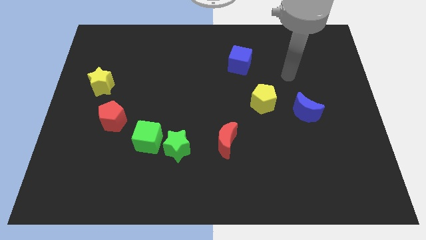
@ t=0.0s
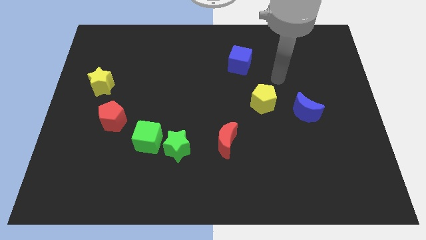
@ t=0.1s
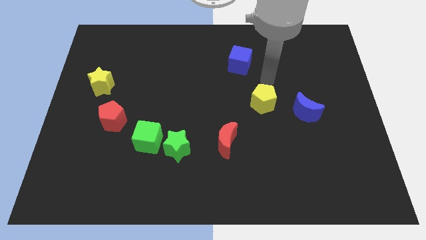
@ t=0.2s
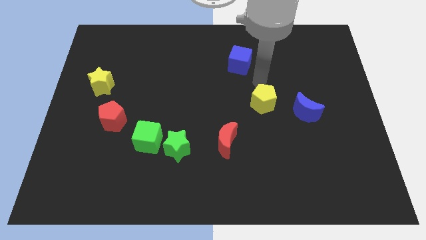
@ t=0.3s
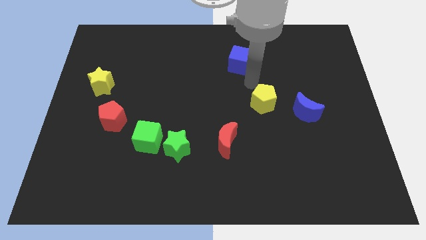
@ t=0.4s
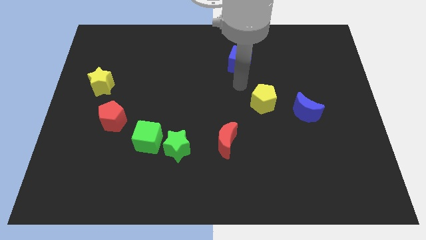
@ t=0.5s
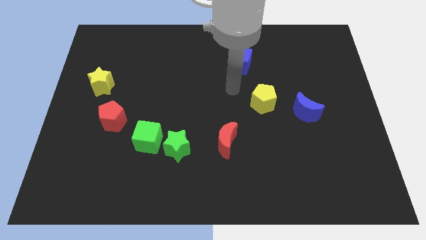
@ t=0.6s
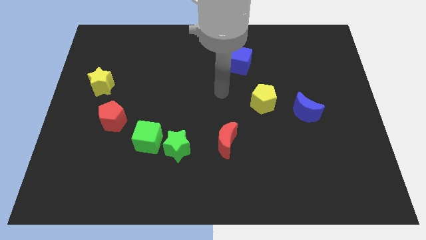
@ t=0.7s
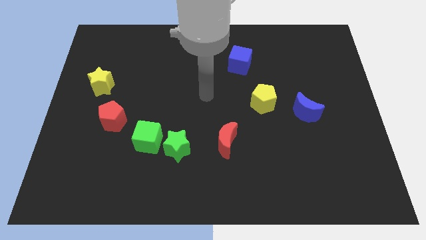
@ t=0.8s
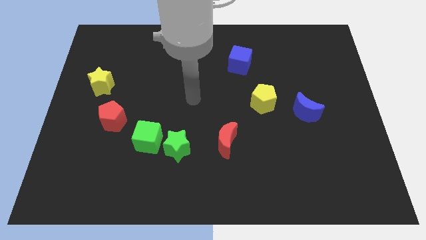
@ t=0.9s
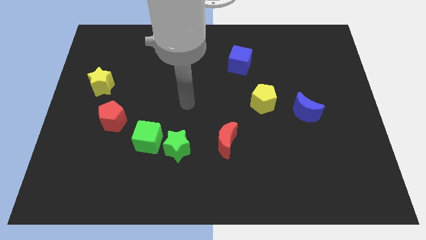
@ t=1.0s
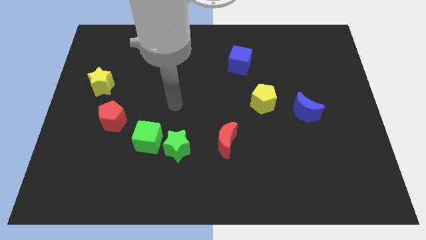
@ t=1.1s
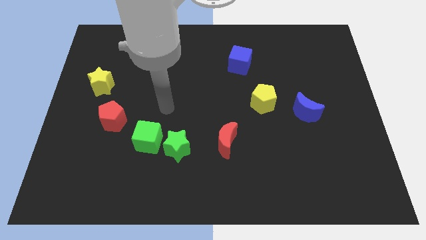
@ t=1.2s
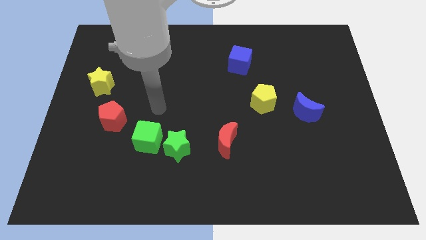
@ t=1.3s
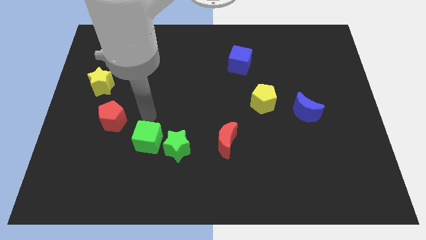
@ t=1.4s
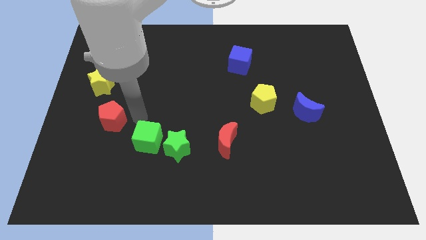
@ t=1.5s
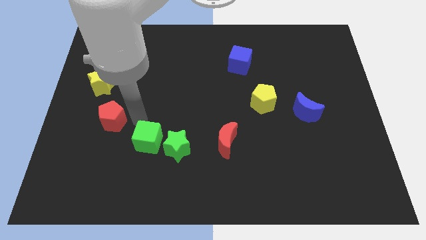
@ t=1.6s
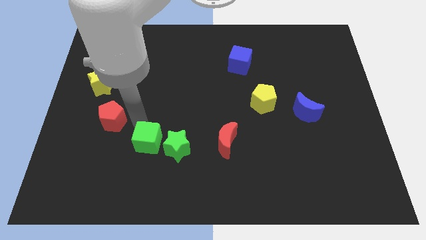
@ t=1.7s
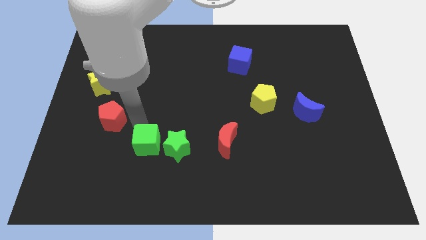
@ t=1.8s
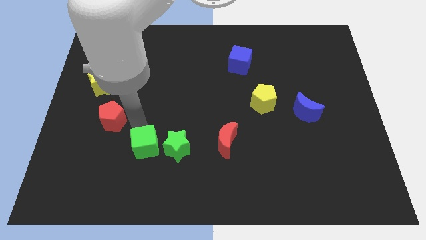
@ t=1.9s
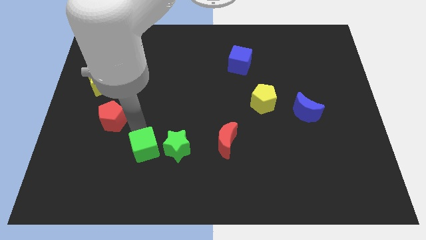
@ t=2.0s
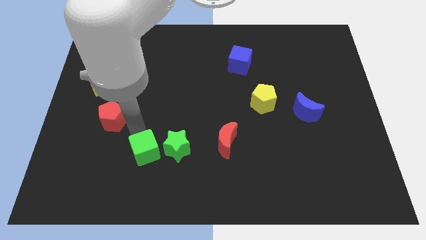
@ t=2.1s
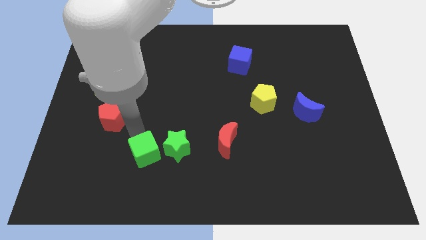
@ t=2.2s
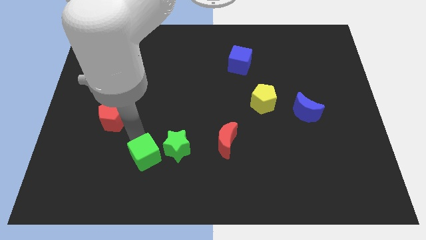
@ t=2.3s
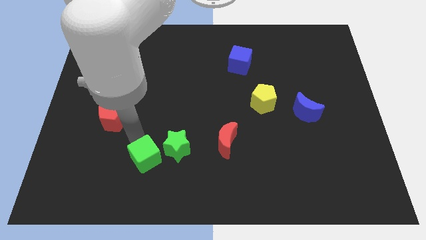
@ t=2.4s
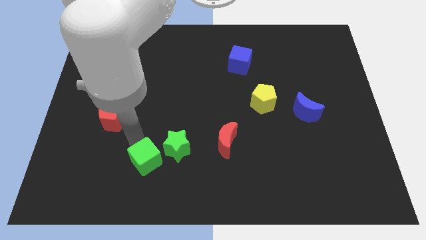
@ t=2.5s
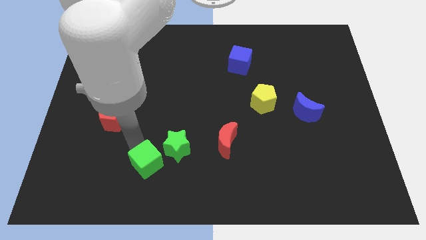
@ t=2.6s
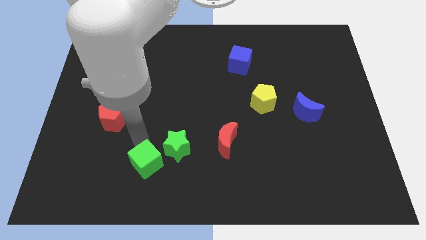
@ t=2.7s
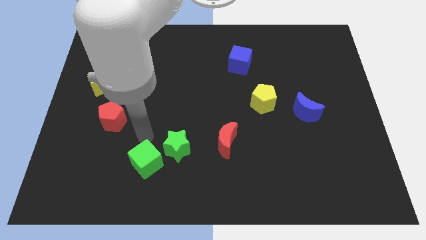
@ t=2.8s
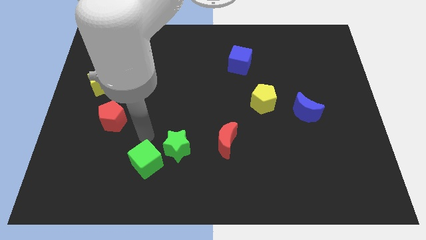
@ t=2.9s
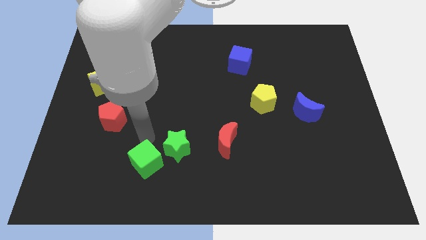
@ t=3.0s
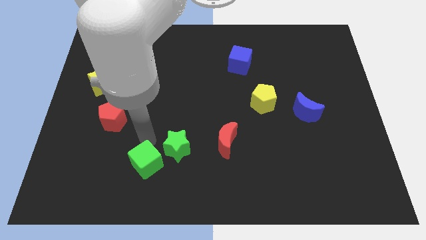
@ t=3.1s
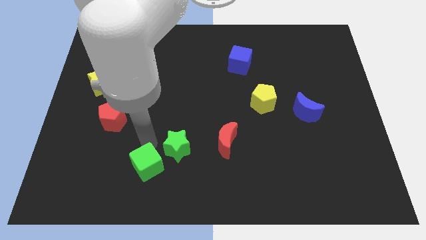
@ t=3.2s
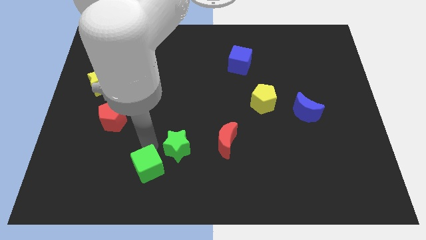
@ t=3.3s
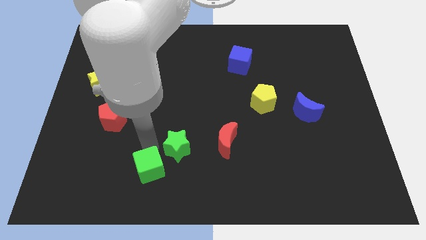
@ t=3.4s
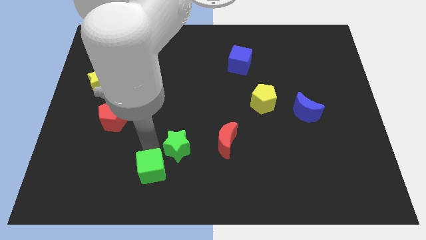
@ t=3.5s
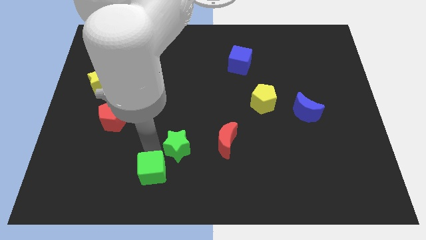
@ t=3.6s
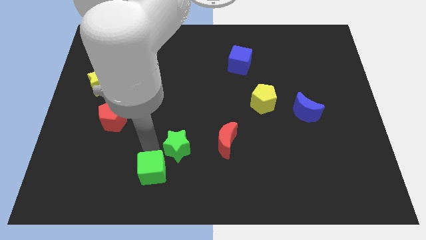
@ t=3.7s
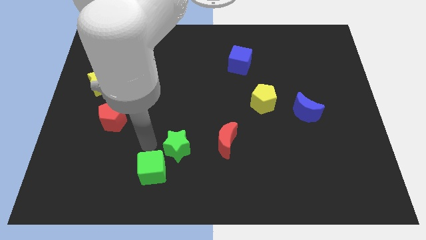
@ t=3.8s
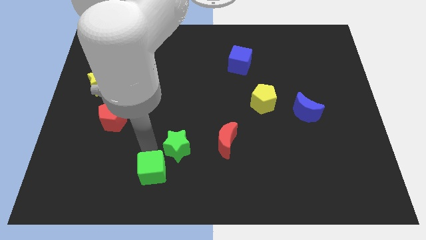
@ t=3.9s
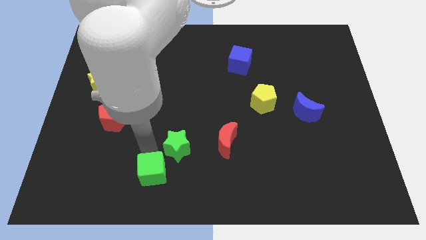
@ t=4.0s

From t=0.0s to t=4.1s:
pull the green cube apart from the green star and red pentagon

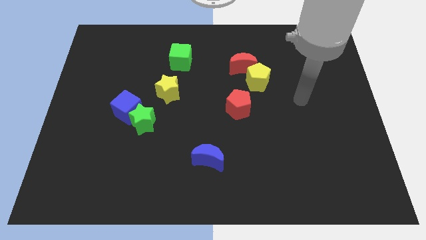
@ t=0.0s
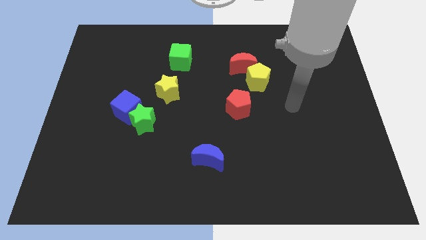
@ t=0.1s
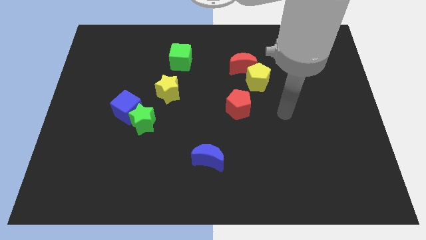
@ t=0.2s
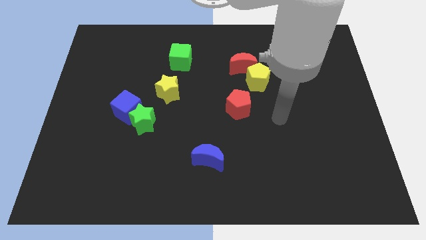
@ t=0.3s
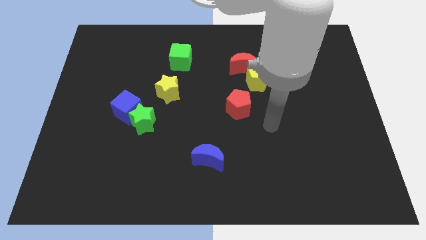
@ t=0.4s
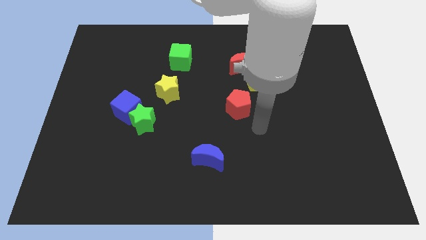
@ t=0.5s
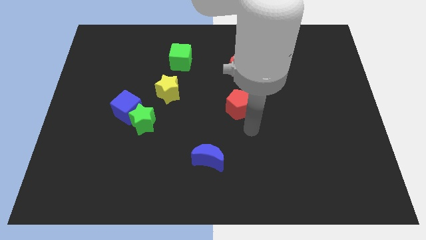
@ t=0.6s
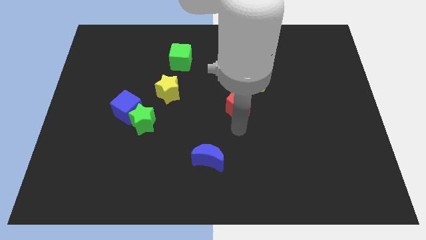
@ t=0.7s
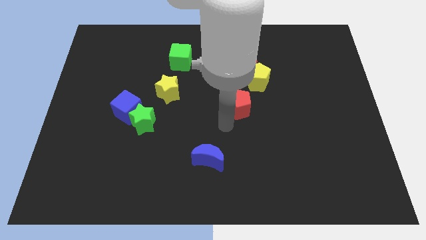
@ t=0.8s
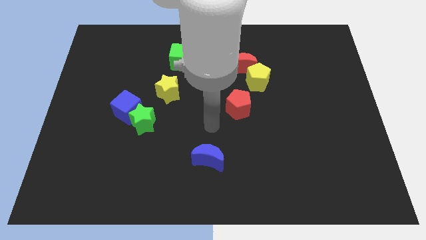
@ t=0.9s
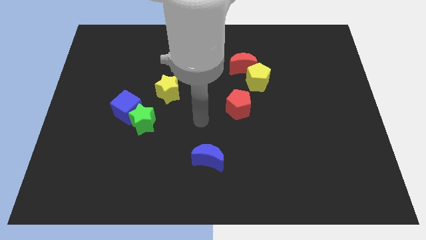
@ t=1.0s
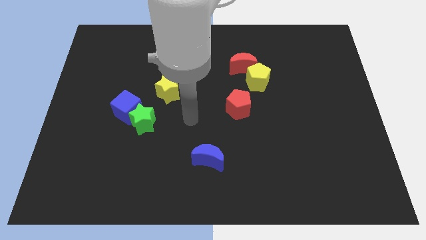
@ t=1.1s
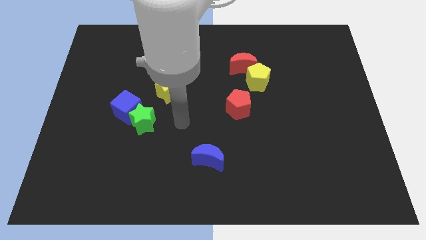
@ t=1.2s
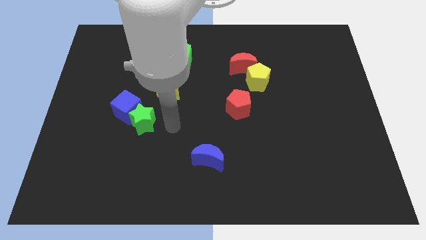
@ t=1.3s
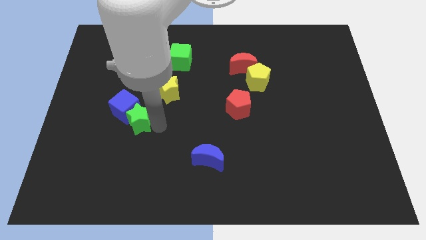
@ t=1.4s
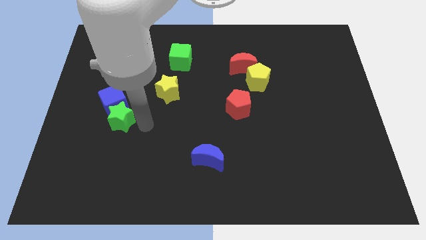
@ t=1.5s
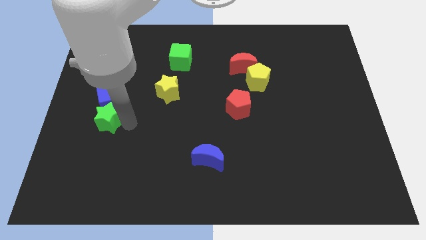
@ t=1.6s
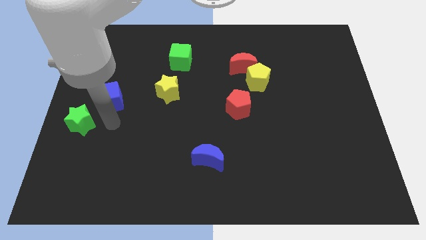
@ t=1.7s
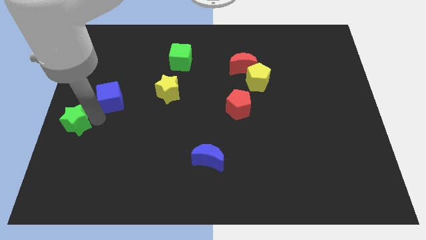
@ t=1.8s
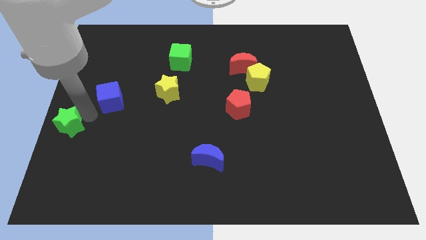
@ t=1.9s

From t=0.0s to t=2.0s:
move the blue cube away from the green star

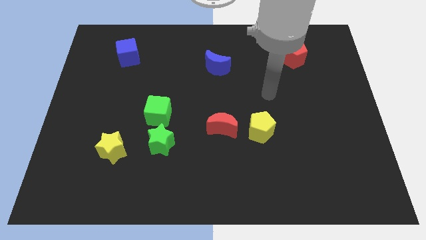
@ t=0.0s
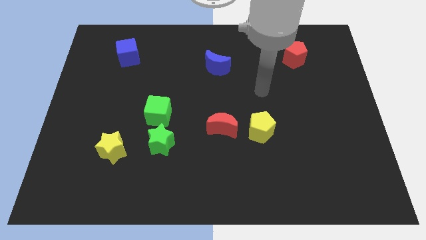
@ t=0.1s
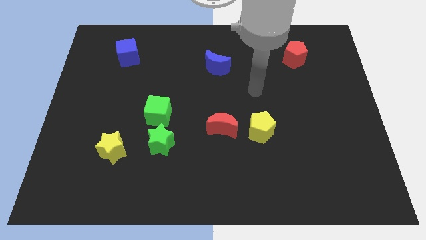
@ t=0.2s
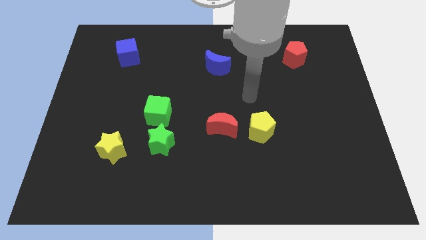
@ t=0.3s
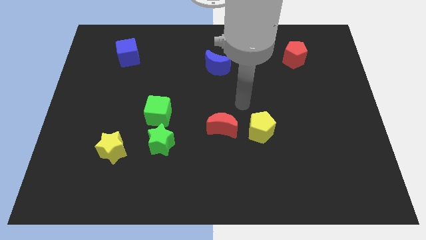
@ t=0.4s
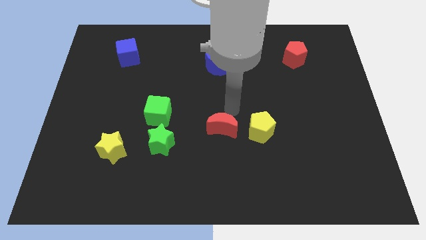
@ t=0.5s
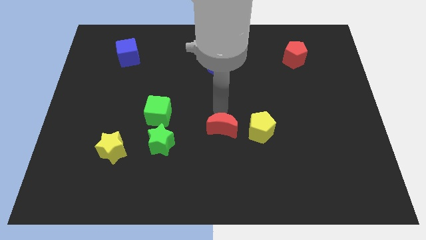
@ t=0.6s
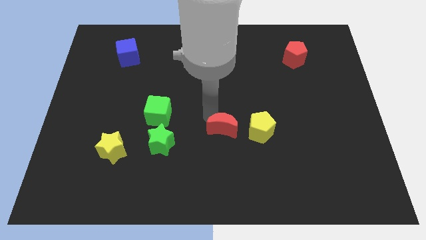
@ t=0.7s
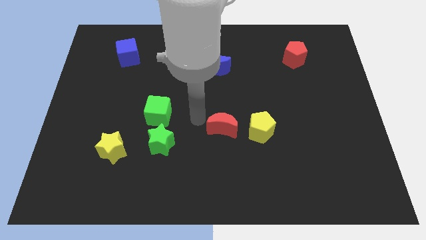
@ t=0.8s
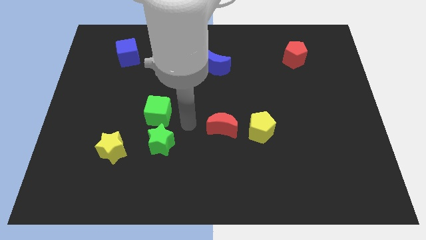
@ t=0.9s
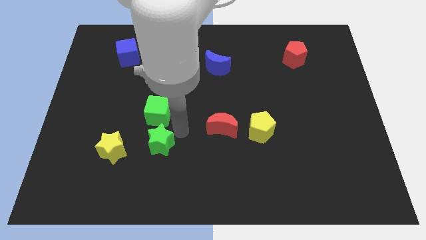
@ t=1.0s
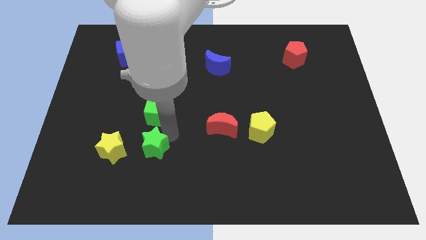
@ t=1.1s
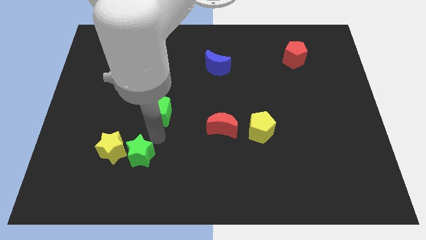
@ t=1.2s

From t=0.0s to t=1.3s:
separate the green cube from the green star

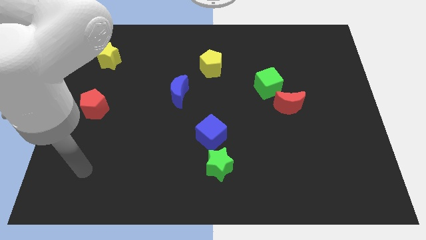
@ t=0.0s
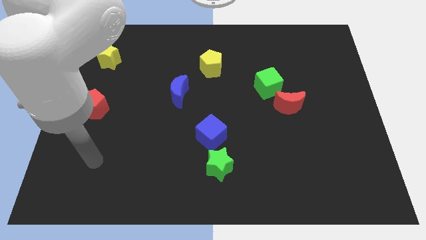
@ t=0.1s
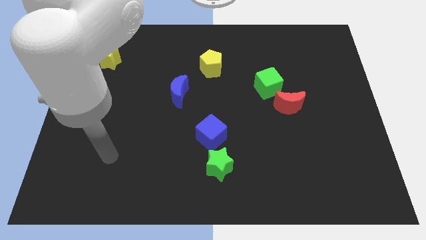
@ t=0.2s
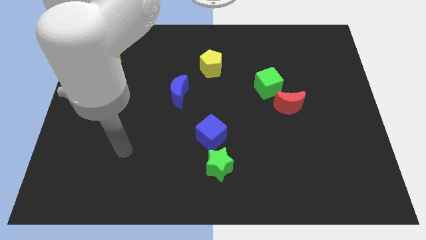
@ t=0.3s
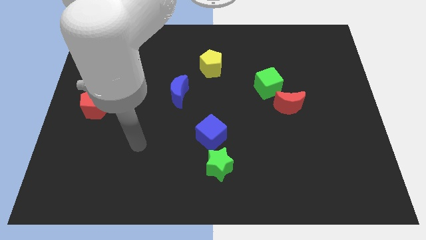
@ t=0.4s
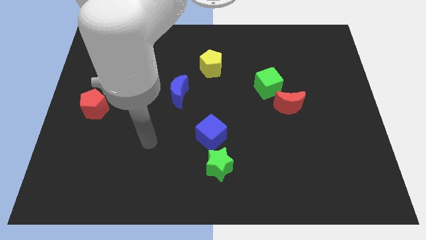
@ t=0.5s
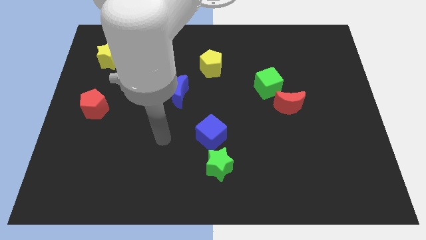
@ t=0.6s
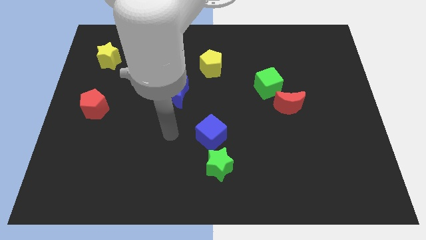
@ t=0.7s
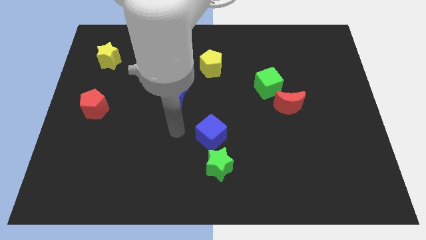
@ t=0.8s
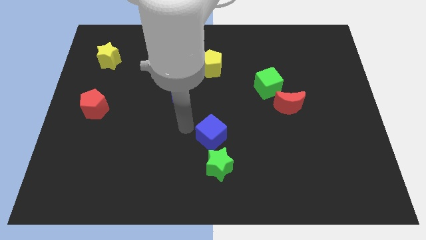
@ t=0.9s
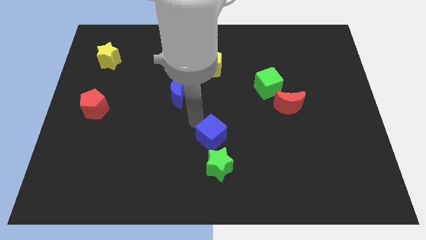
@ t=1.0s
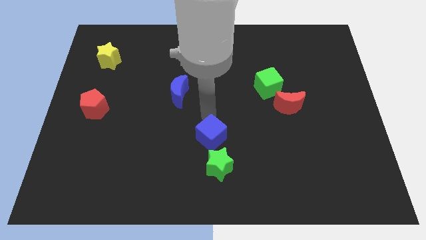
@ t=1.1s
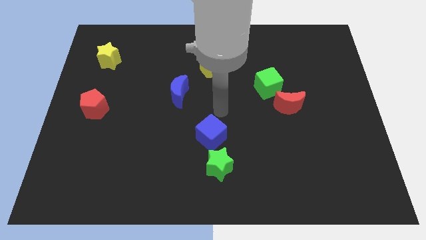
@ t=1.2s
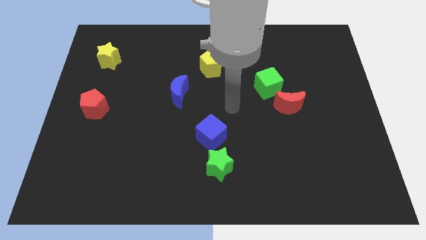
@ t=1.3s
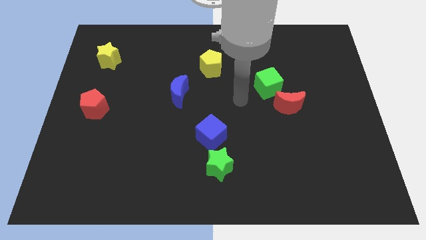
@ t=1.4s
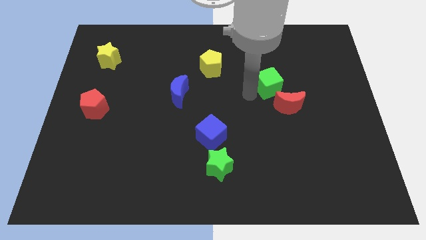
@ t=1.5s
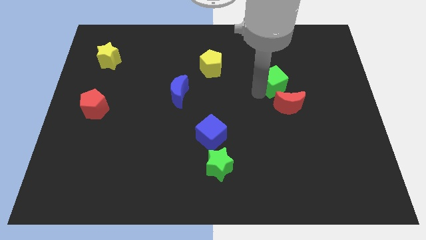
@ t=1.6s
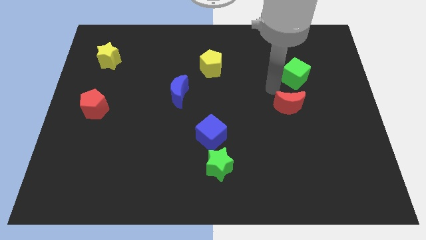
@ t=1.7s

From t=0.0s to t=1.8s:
pull the red moon apart from the green cube
